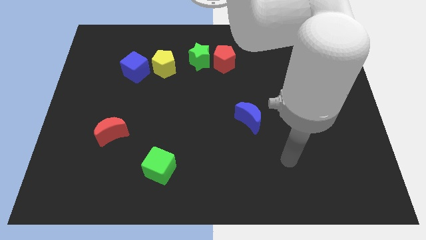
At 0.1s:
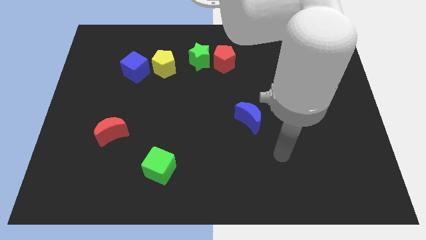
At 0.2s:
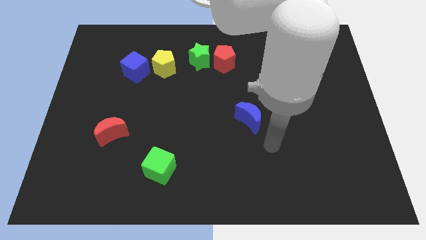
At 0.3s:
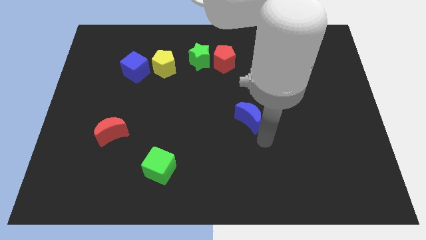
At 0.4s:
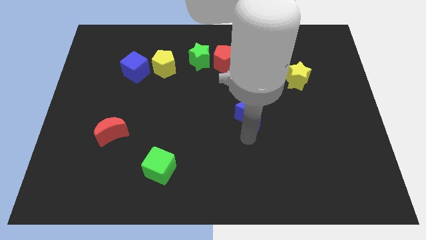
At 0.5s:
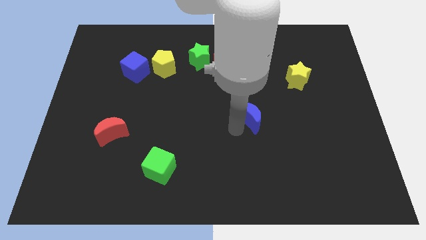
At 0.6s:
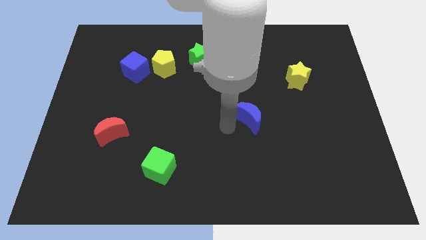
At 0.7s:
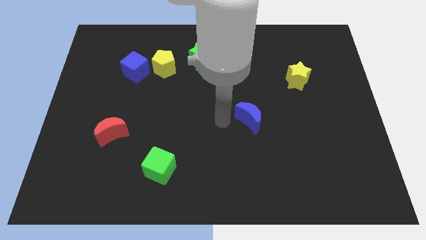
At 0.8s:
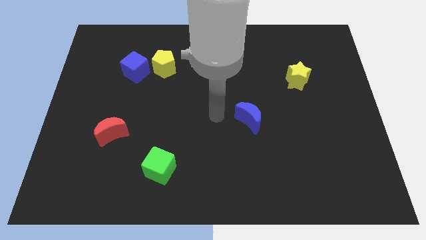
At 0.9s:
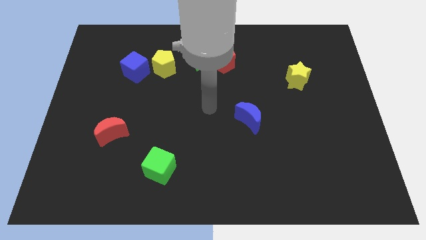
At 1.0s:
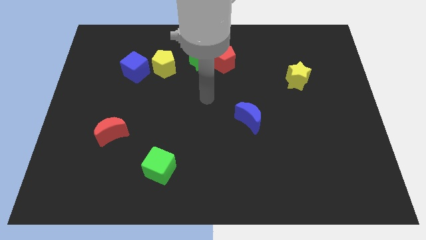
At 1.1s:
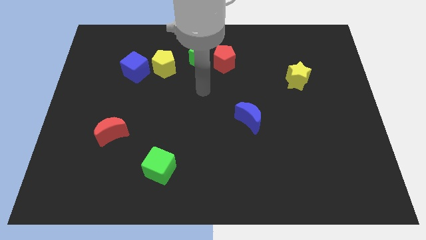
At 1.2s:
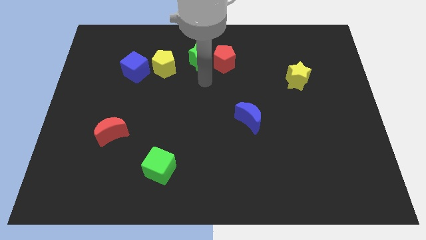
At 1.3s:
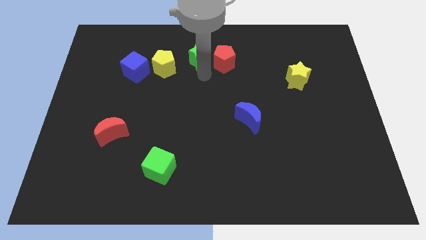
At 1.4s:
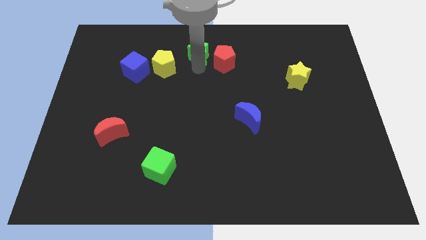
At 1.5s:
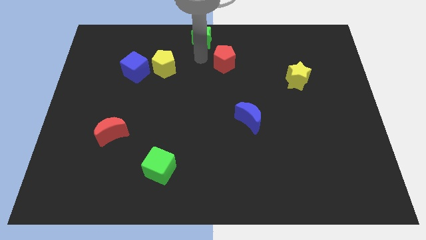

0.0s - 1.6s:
move the red pentagon away from the green star

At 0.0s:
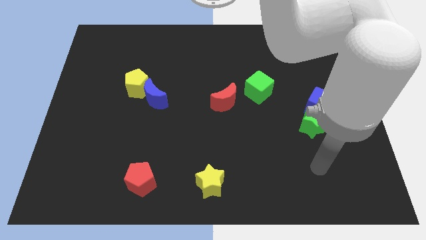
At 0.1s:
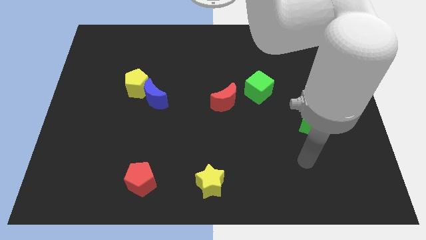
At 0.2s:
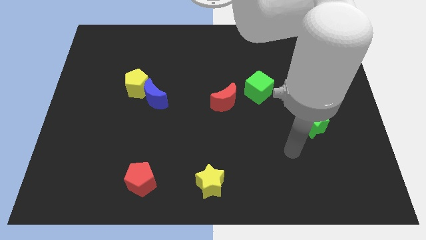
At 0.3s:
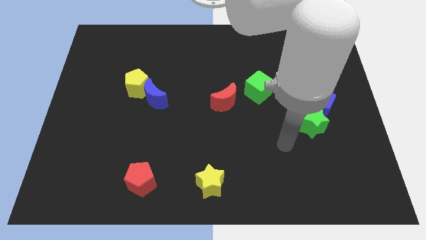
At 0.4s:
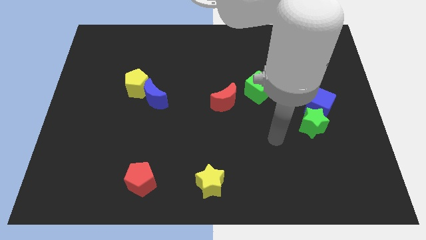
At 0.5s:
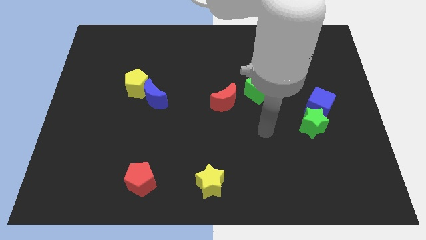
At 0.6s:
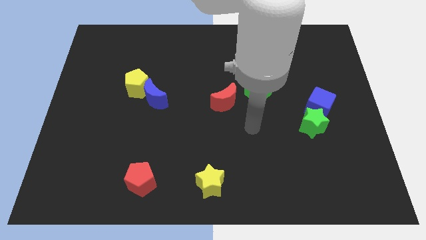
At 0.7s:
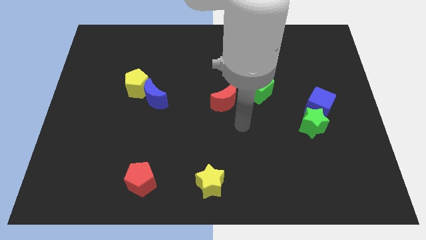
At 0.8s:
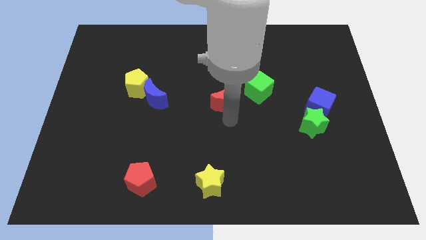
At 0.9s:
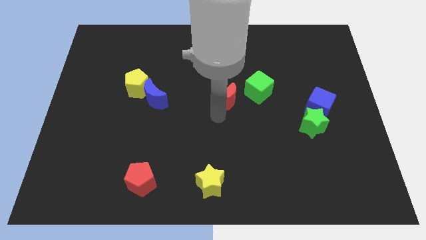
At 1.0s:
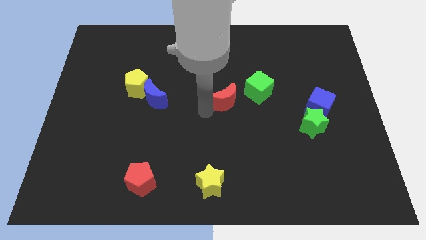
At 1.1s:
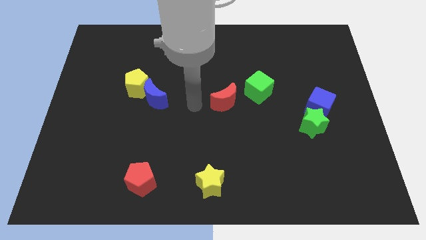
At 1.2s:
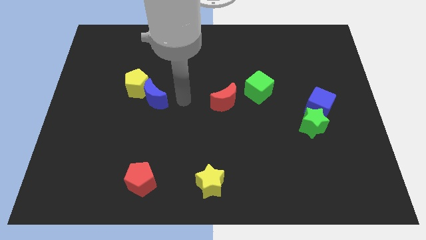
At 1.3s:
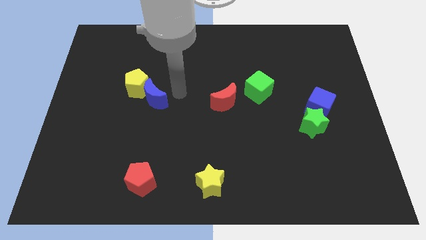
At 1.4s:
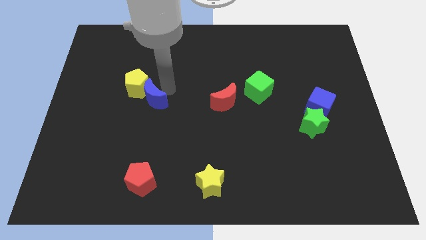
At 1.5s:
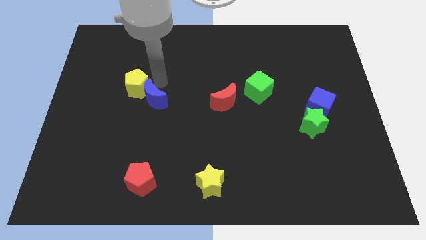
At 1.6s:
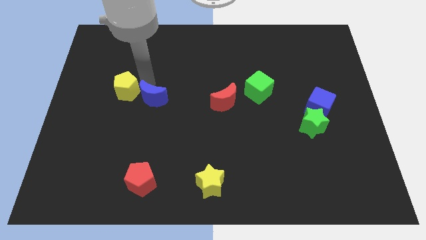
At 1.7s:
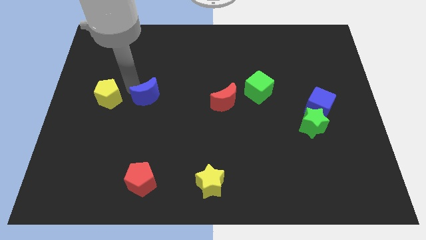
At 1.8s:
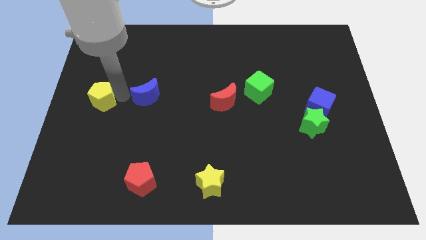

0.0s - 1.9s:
separate the blue moon from the yellow pentagon

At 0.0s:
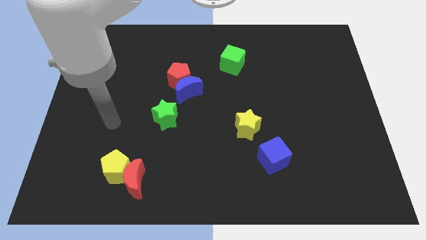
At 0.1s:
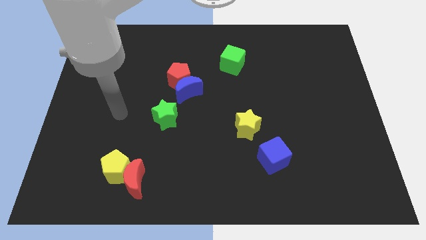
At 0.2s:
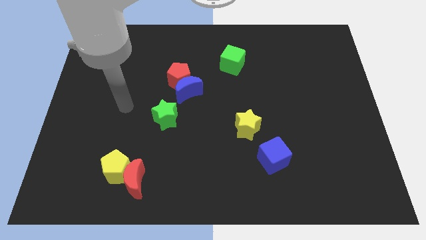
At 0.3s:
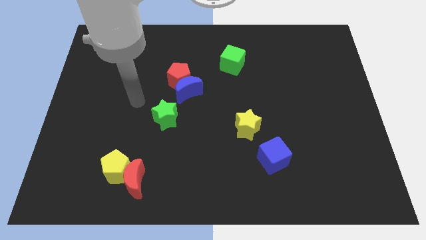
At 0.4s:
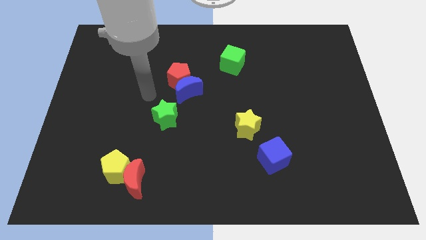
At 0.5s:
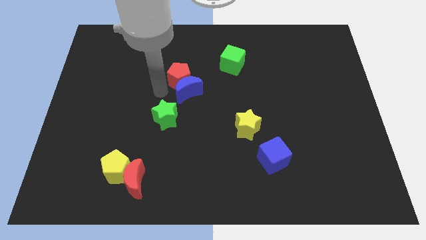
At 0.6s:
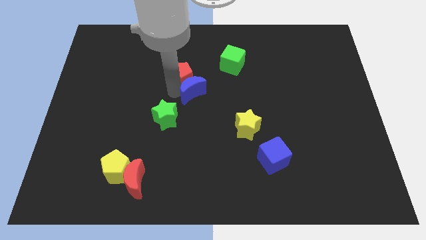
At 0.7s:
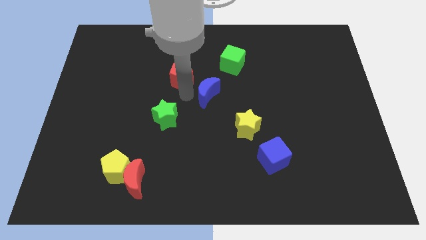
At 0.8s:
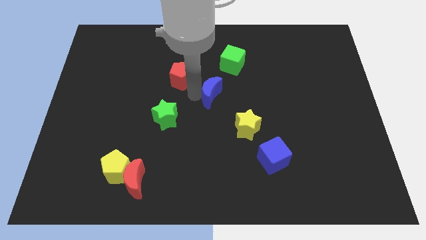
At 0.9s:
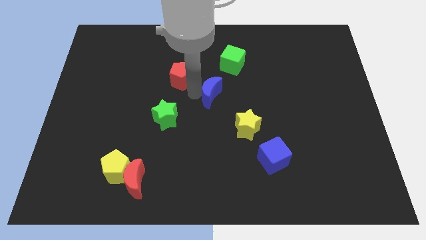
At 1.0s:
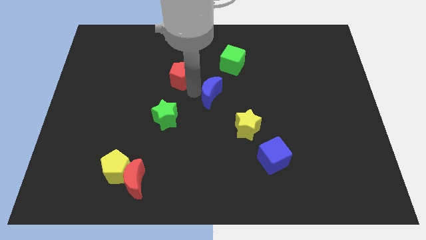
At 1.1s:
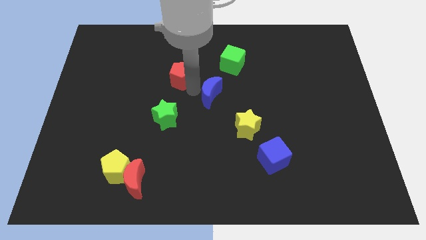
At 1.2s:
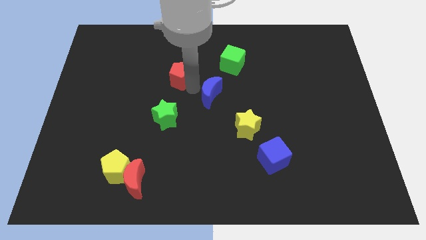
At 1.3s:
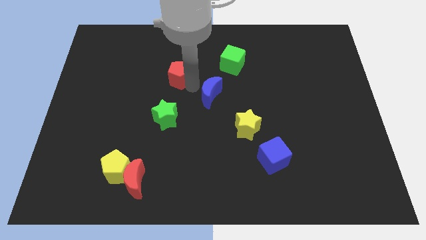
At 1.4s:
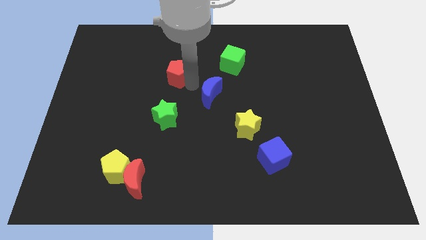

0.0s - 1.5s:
move the red pentagon away from the blue moon

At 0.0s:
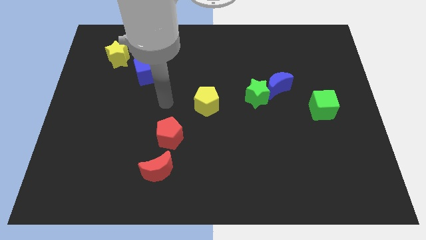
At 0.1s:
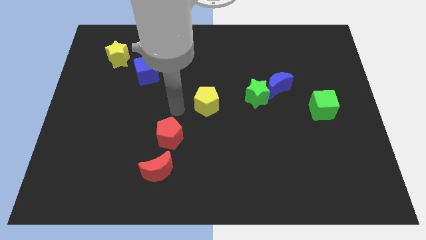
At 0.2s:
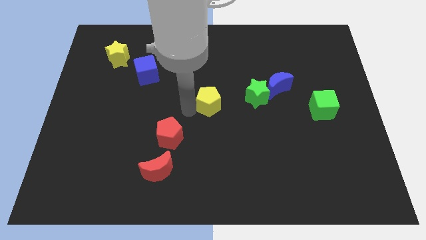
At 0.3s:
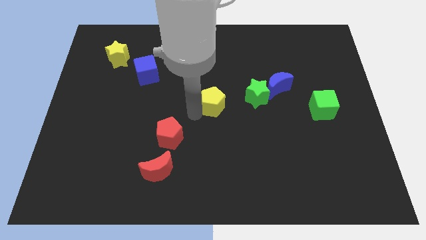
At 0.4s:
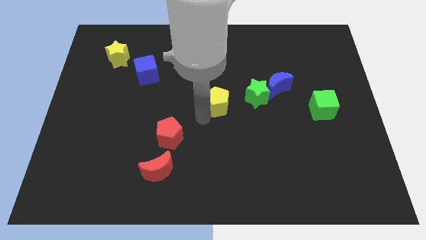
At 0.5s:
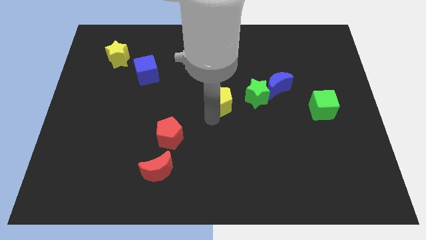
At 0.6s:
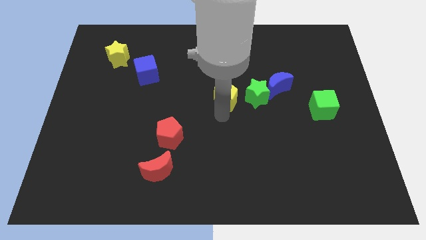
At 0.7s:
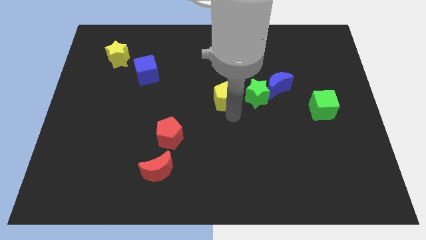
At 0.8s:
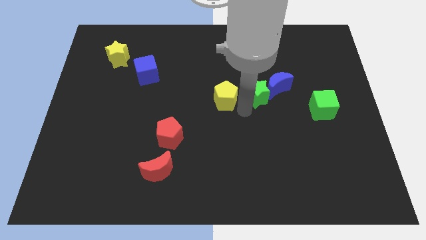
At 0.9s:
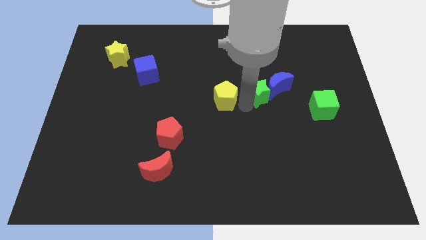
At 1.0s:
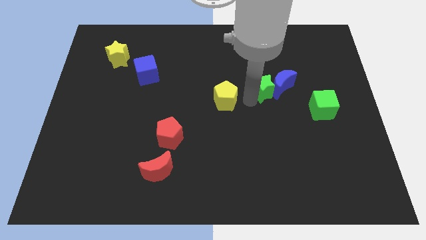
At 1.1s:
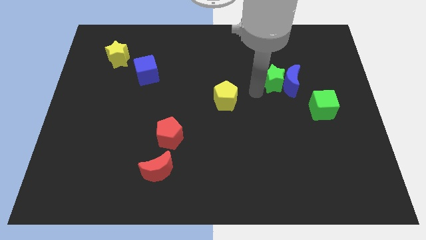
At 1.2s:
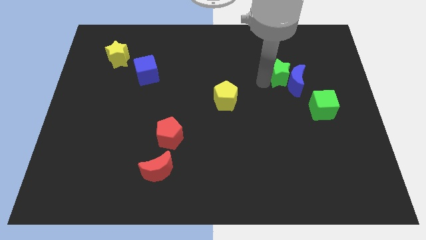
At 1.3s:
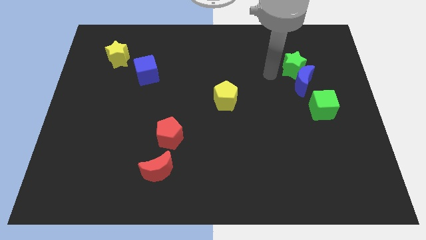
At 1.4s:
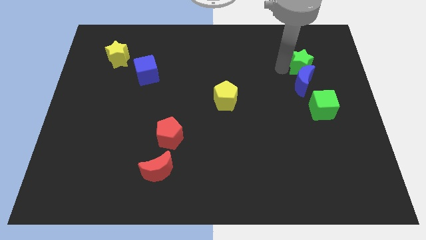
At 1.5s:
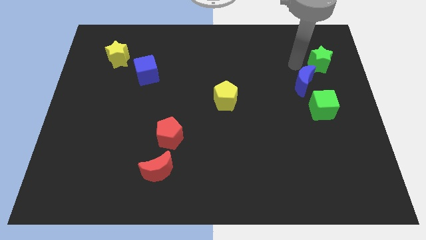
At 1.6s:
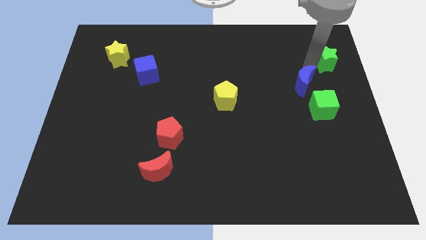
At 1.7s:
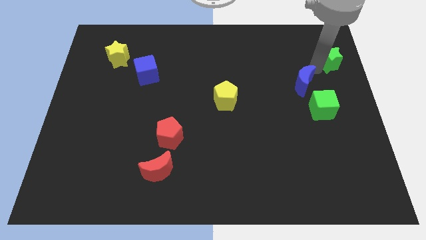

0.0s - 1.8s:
move the blue moon away from the green star

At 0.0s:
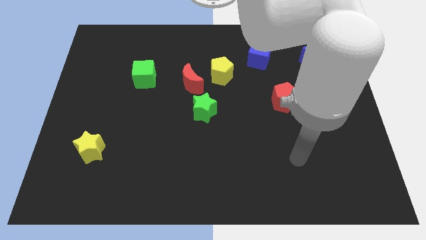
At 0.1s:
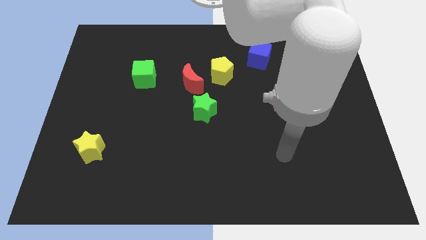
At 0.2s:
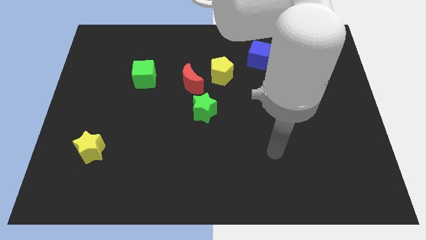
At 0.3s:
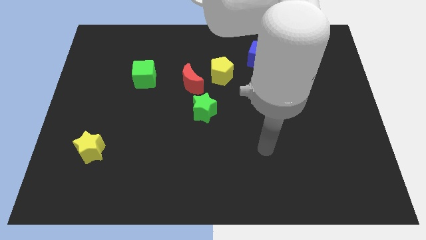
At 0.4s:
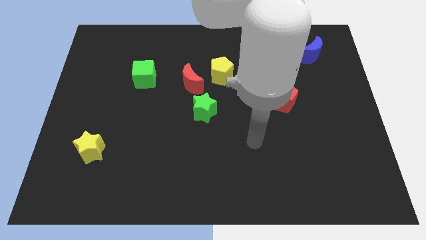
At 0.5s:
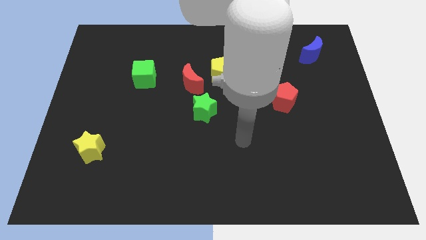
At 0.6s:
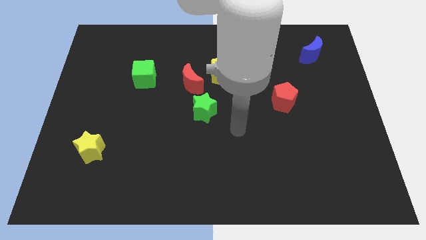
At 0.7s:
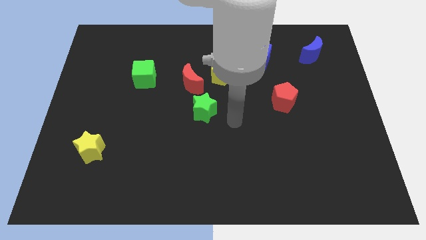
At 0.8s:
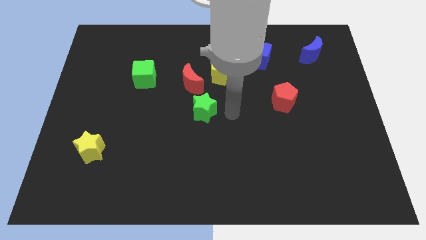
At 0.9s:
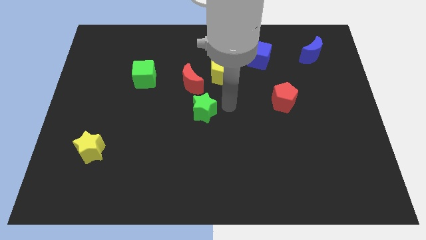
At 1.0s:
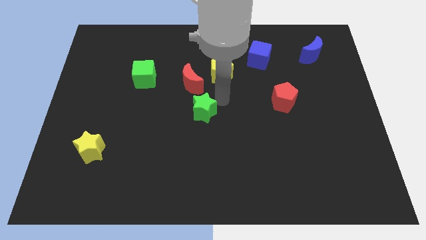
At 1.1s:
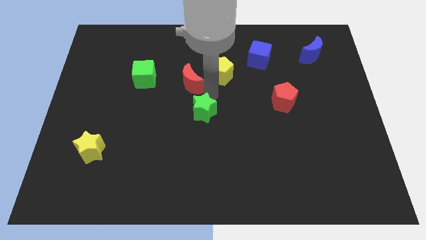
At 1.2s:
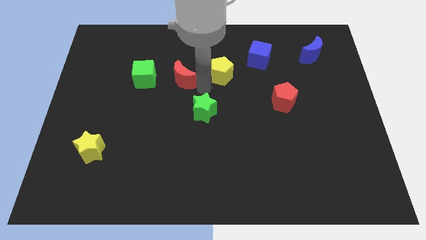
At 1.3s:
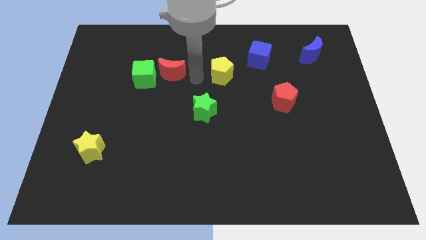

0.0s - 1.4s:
pull the yellow pentagon apart from the red moon

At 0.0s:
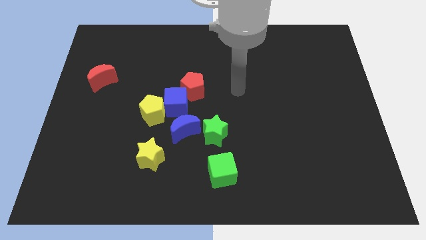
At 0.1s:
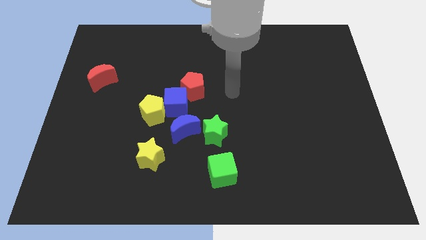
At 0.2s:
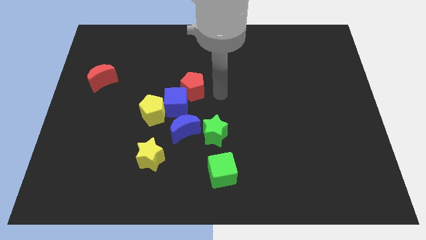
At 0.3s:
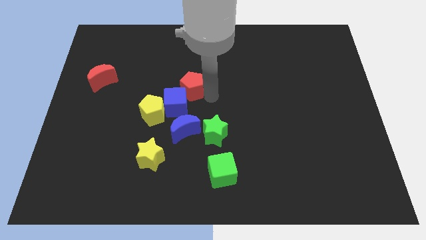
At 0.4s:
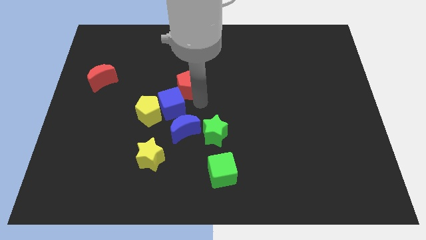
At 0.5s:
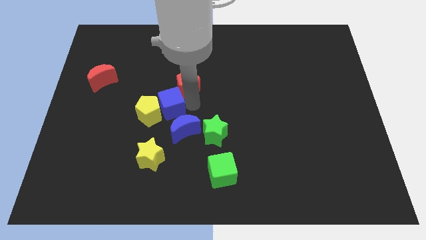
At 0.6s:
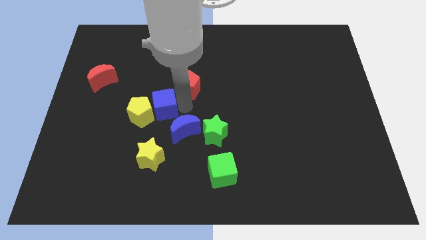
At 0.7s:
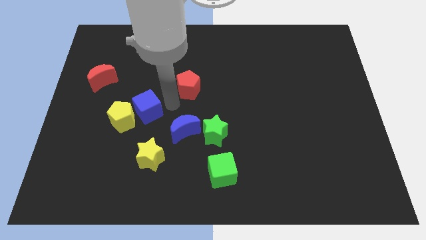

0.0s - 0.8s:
pull the red pentagon apart from the blue cube

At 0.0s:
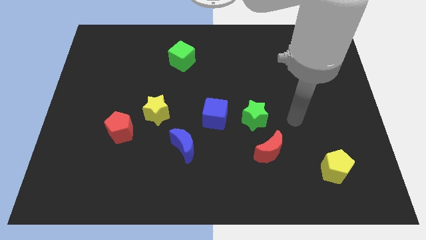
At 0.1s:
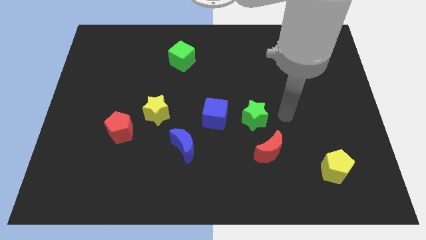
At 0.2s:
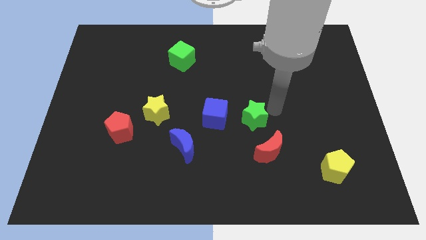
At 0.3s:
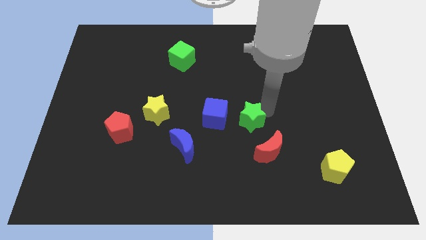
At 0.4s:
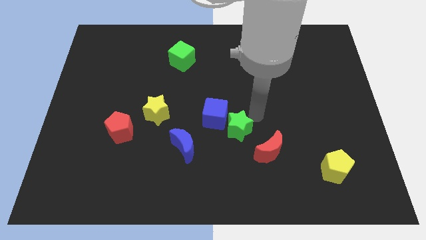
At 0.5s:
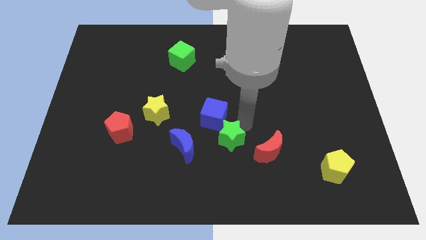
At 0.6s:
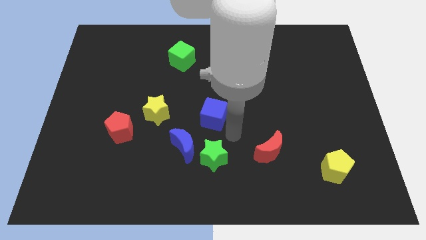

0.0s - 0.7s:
move the blue cube away from the green star
